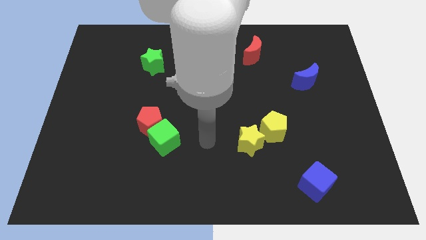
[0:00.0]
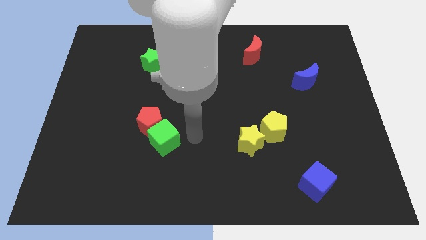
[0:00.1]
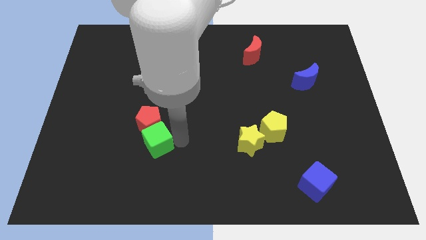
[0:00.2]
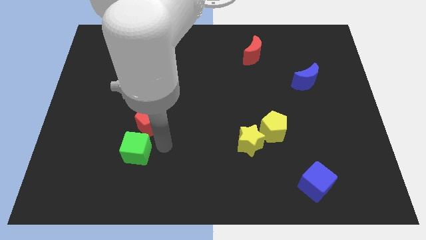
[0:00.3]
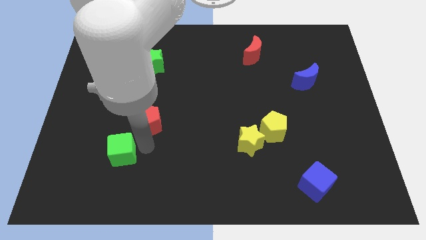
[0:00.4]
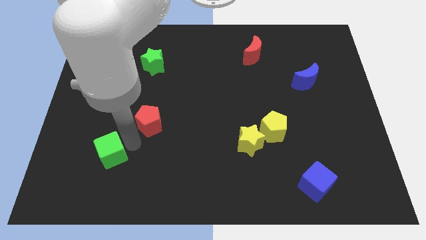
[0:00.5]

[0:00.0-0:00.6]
separate the red pentagon from the green cube

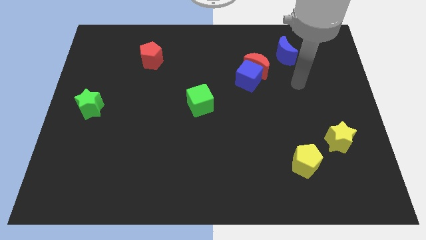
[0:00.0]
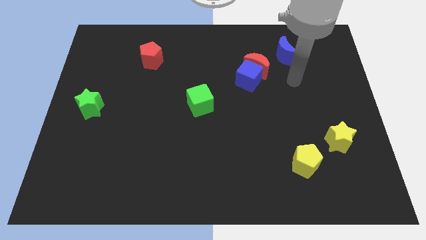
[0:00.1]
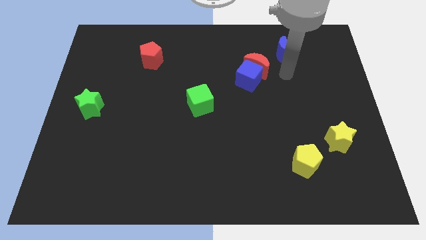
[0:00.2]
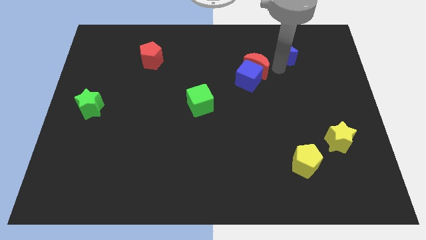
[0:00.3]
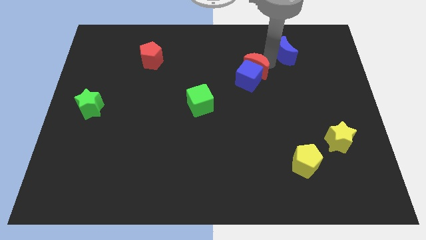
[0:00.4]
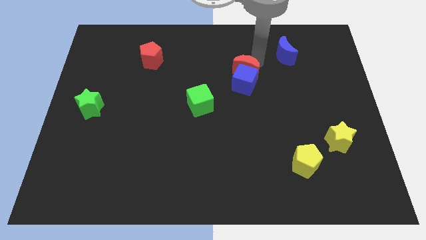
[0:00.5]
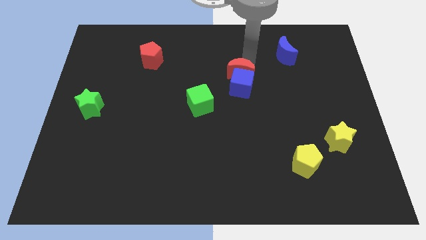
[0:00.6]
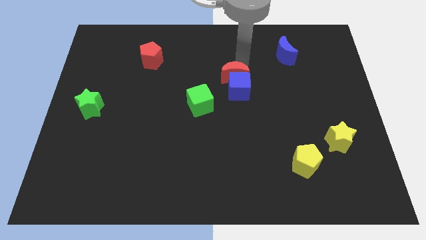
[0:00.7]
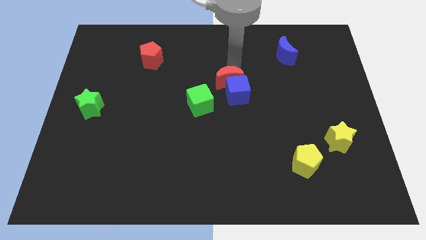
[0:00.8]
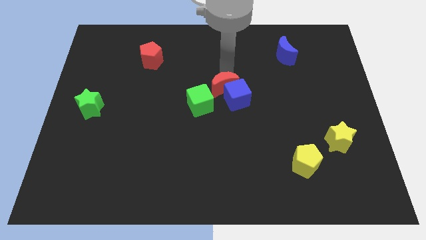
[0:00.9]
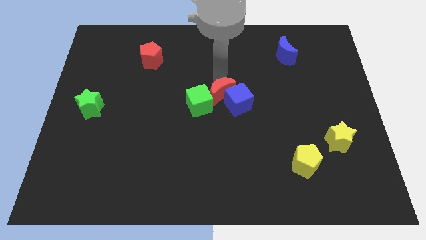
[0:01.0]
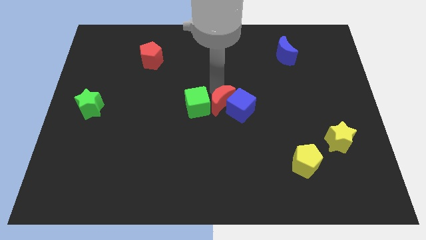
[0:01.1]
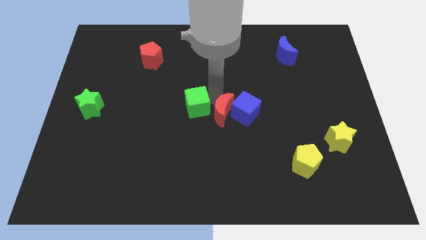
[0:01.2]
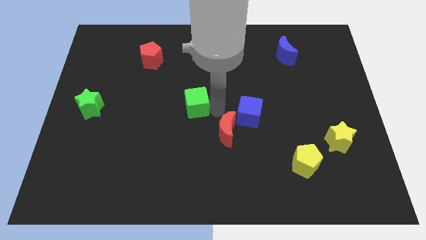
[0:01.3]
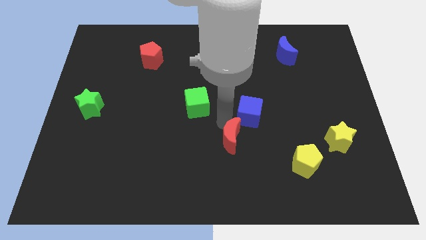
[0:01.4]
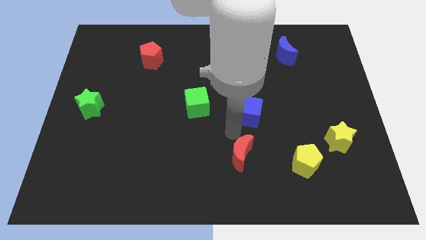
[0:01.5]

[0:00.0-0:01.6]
move the blue cube away from the red moon

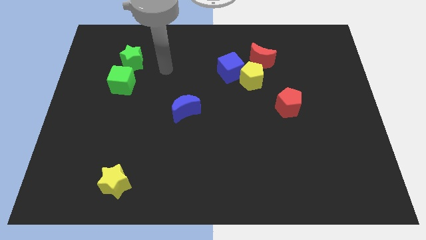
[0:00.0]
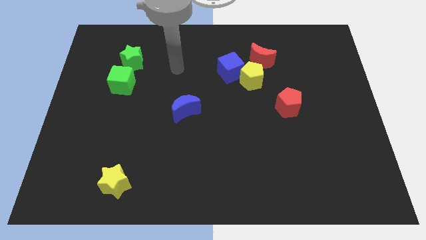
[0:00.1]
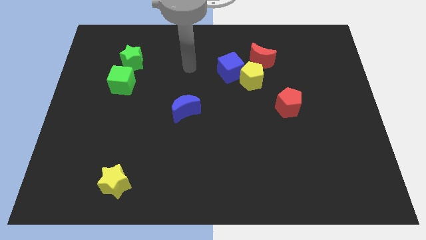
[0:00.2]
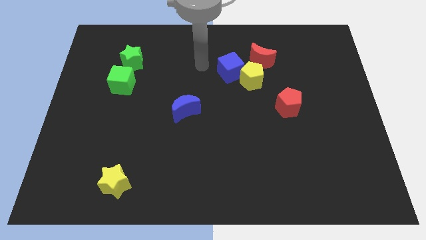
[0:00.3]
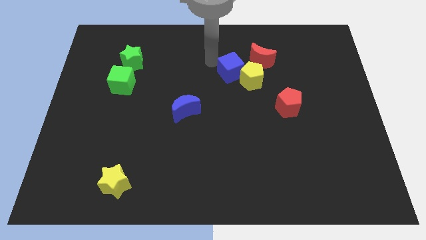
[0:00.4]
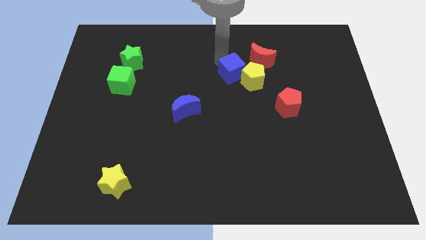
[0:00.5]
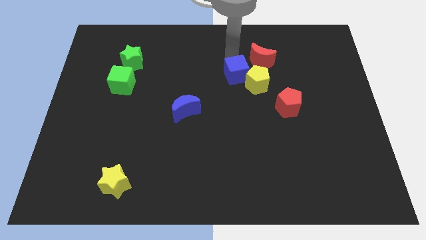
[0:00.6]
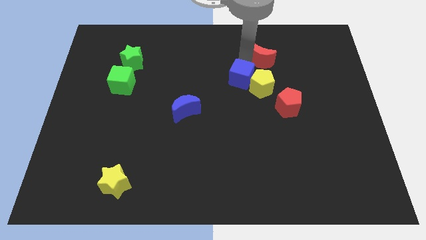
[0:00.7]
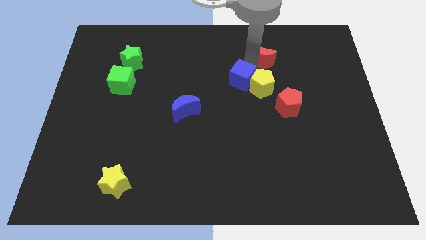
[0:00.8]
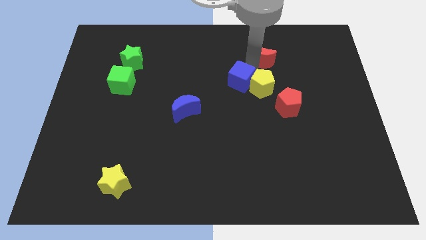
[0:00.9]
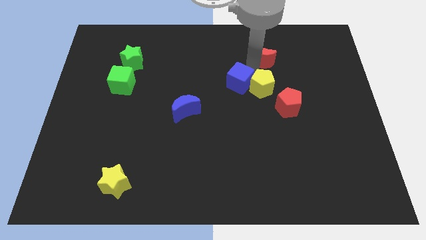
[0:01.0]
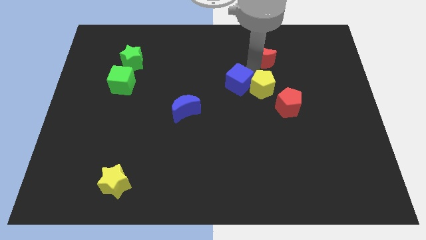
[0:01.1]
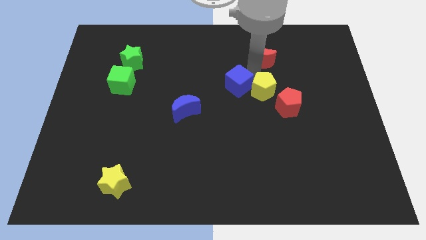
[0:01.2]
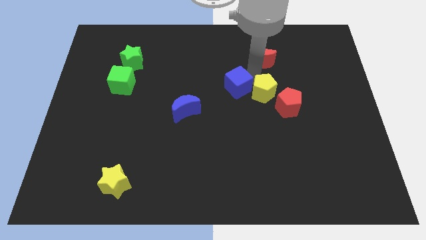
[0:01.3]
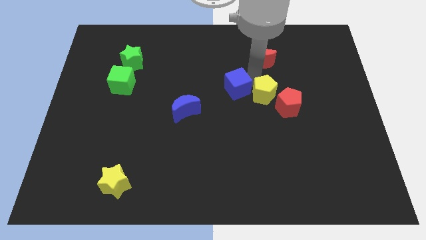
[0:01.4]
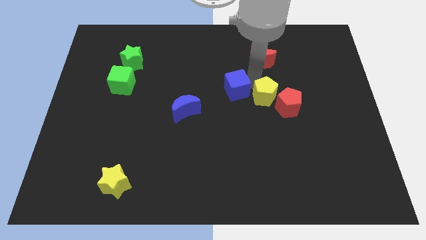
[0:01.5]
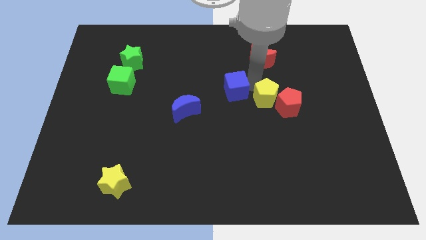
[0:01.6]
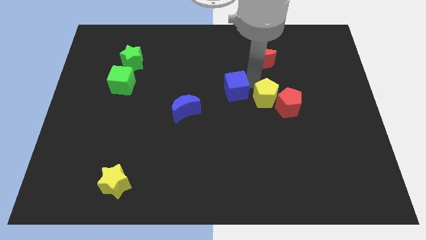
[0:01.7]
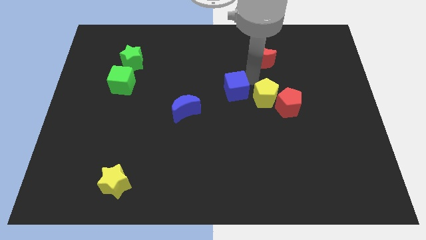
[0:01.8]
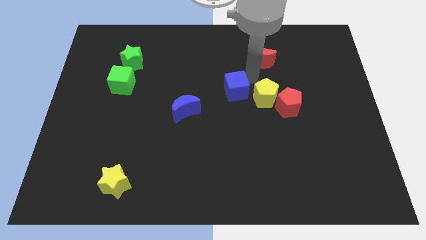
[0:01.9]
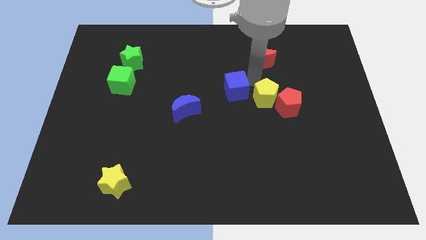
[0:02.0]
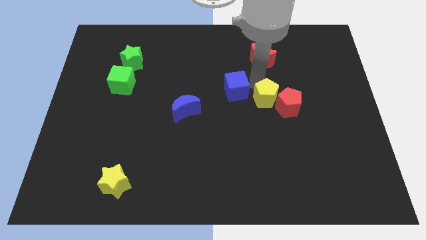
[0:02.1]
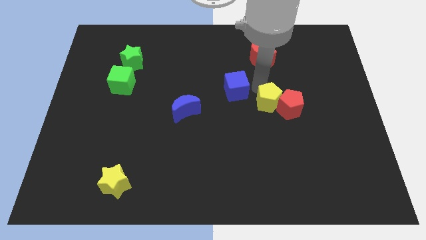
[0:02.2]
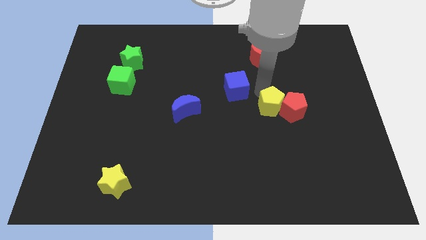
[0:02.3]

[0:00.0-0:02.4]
separate the yellow pentagon from the blue cube and red moon

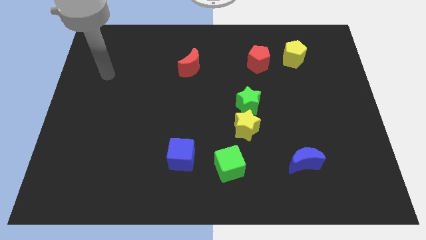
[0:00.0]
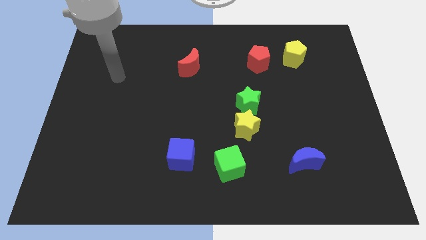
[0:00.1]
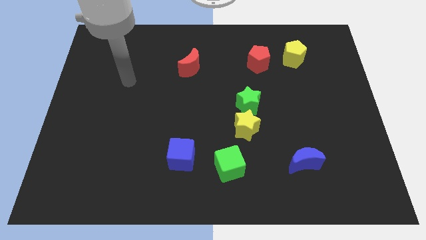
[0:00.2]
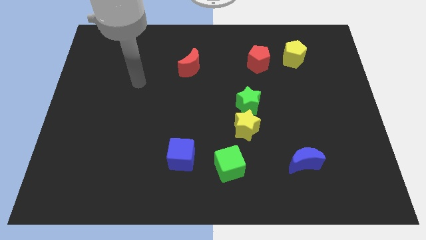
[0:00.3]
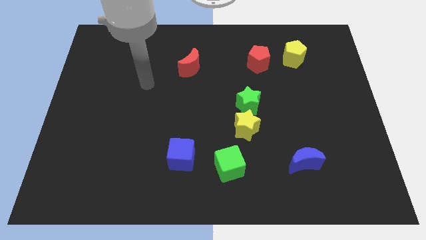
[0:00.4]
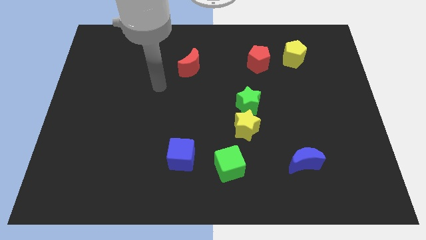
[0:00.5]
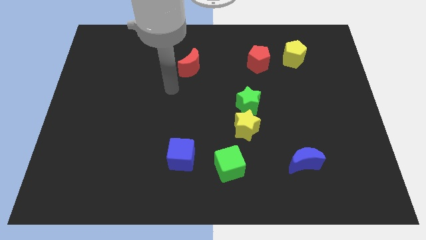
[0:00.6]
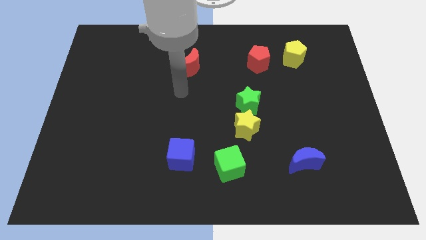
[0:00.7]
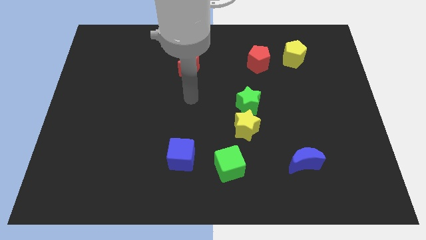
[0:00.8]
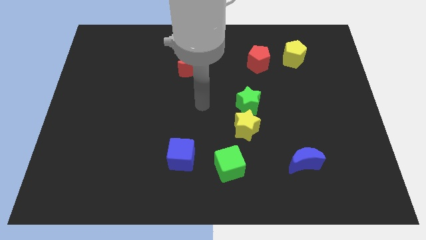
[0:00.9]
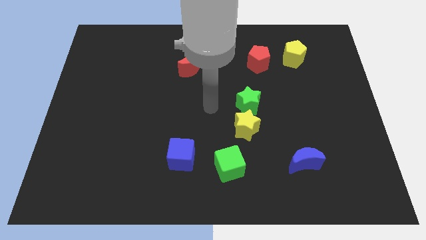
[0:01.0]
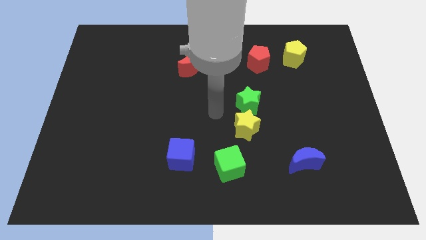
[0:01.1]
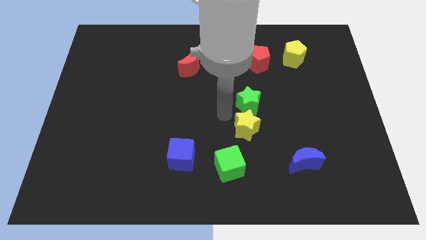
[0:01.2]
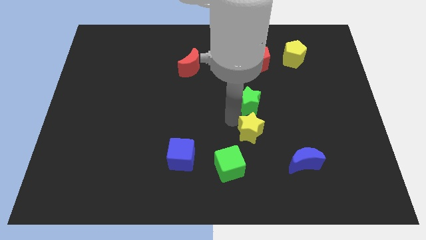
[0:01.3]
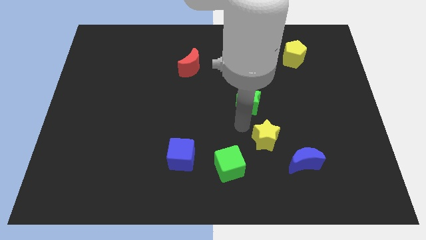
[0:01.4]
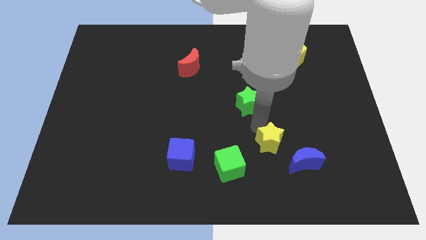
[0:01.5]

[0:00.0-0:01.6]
pull the green star apart from the yellow star

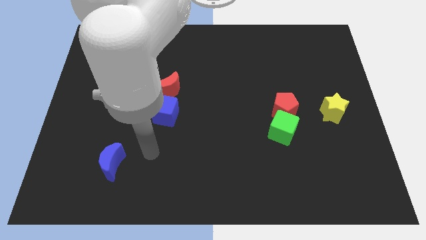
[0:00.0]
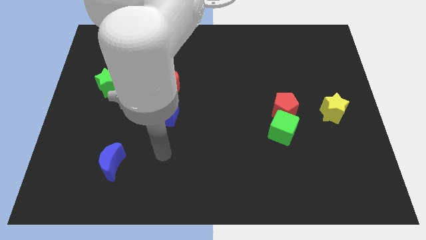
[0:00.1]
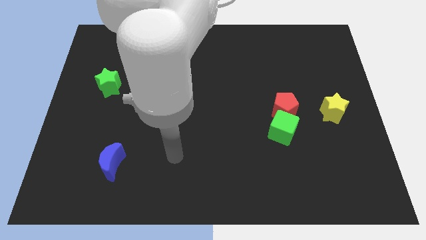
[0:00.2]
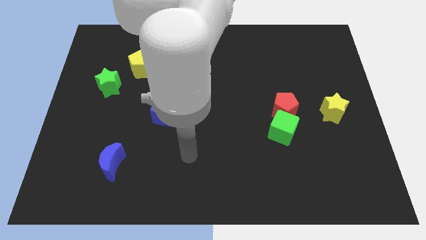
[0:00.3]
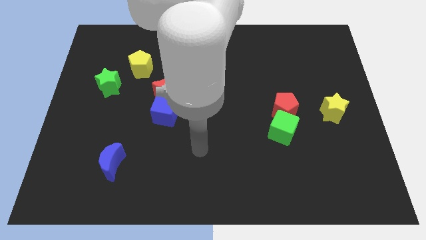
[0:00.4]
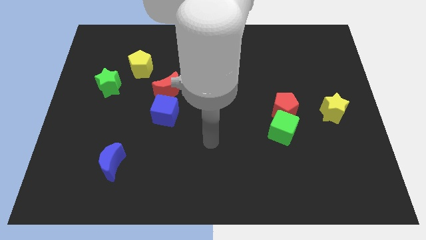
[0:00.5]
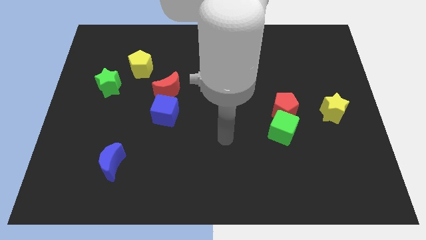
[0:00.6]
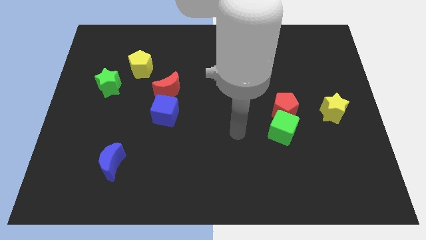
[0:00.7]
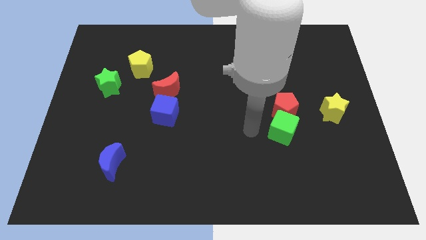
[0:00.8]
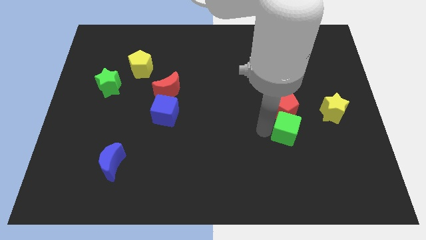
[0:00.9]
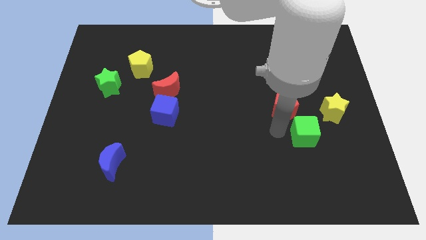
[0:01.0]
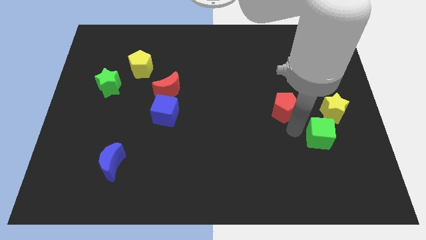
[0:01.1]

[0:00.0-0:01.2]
pull the red pentagon apart from the green cube

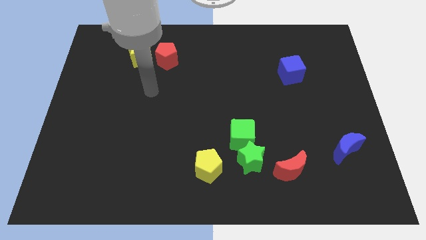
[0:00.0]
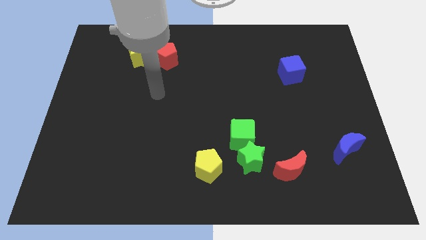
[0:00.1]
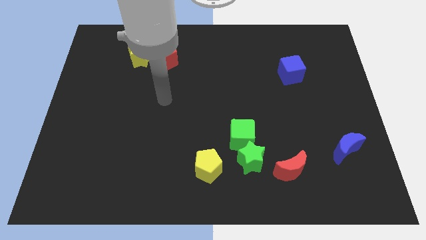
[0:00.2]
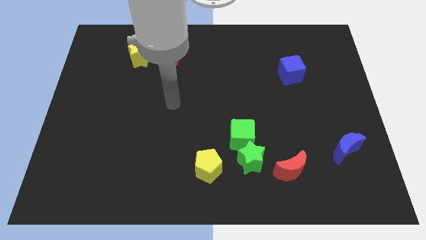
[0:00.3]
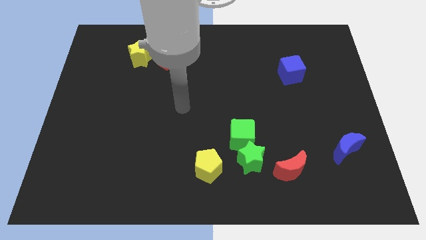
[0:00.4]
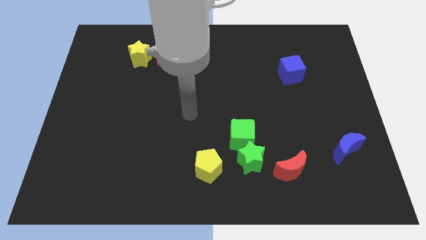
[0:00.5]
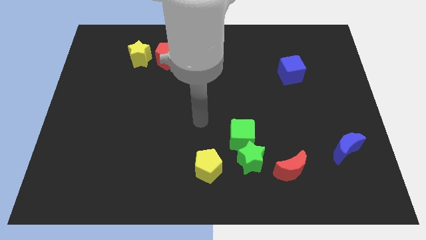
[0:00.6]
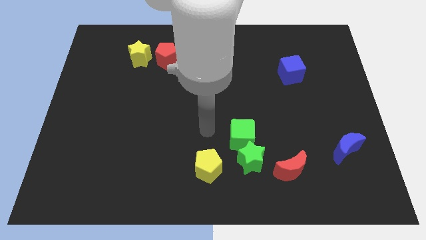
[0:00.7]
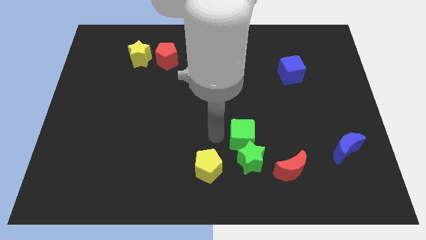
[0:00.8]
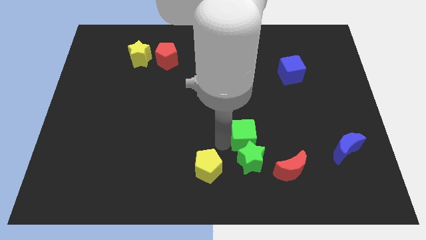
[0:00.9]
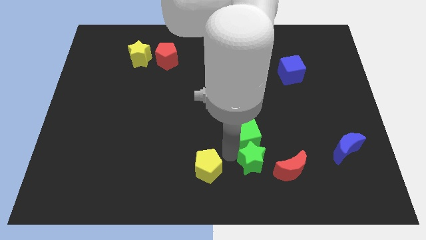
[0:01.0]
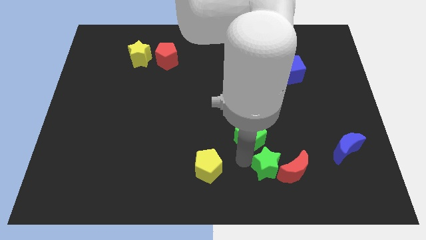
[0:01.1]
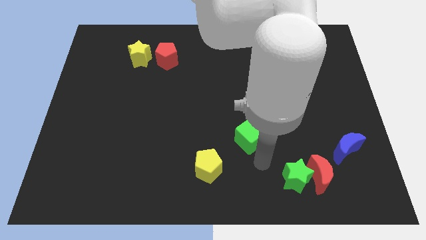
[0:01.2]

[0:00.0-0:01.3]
move the green cube away from the green star

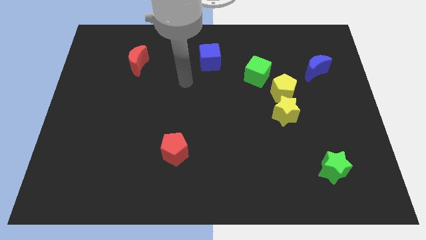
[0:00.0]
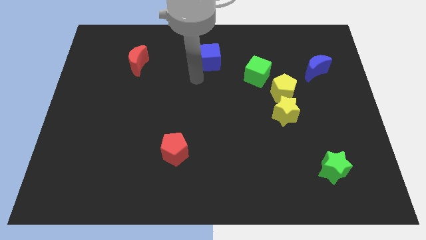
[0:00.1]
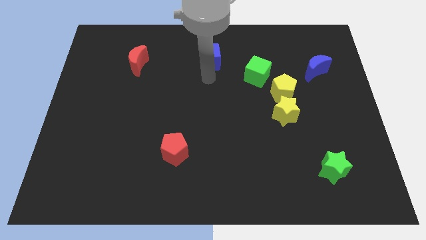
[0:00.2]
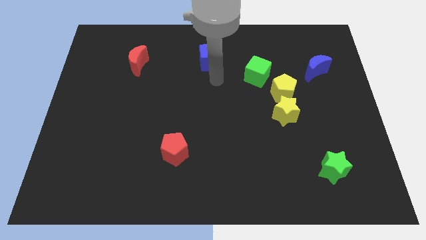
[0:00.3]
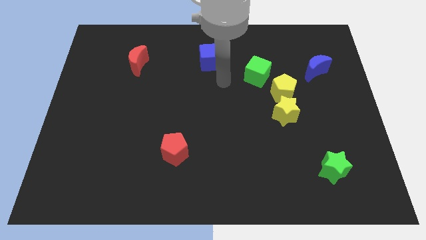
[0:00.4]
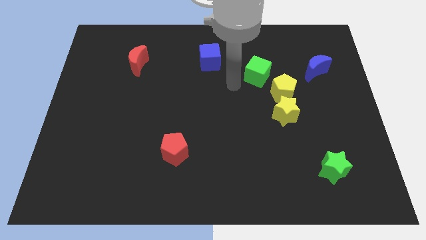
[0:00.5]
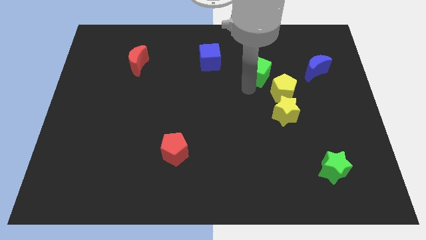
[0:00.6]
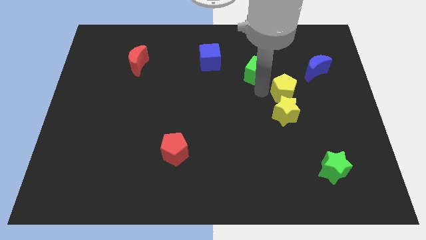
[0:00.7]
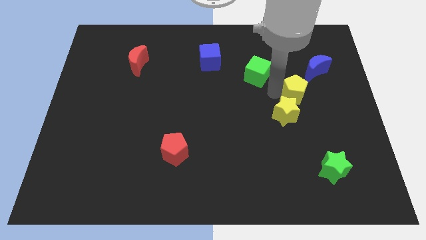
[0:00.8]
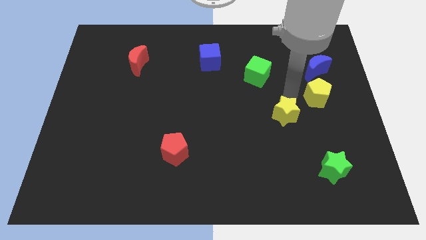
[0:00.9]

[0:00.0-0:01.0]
pull the yellow star apart from the yellow pentagon
